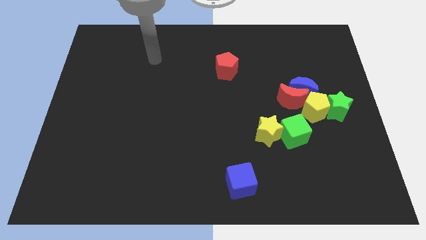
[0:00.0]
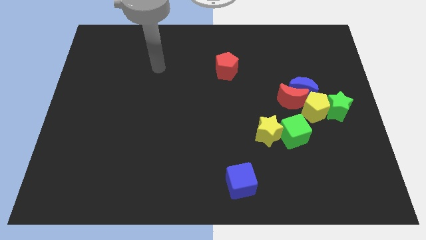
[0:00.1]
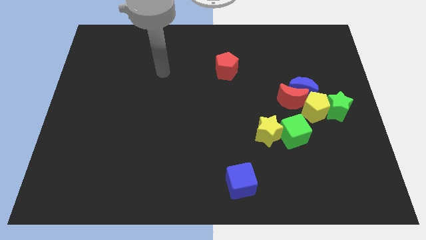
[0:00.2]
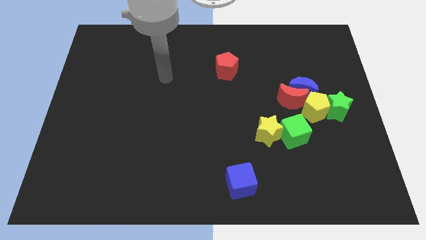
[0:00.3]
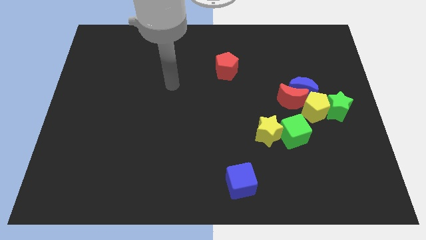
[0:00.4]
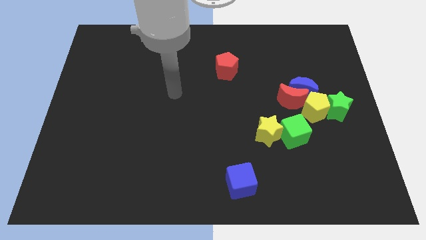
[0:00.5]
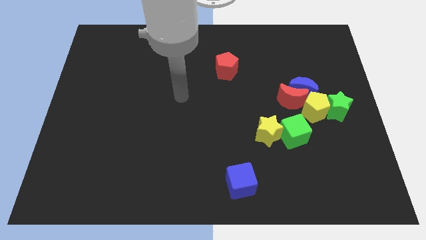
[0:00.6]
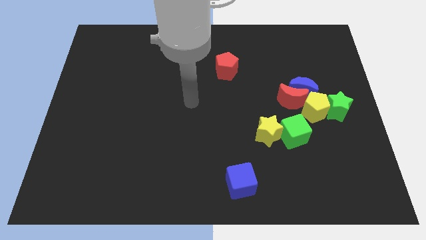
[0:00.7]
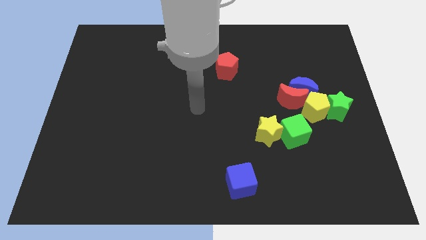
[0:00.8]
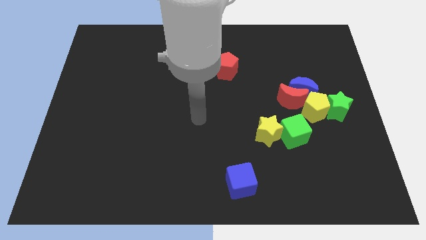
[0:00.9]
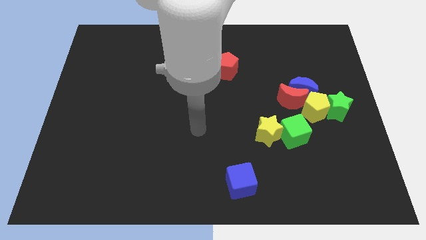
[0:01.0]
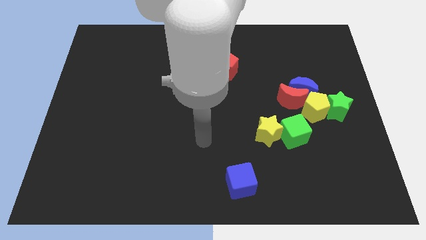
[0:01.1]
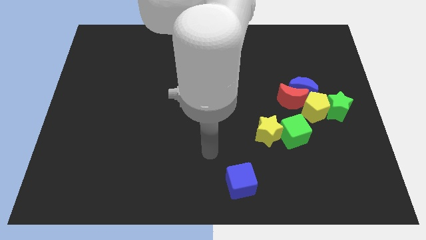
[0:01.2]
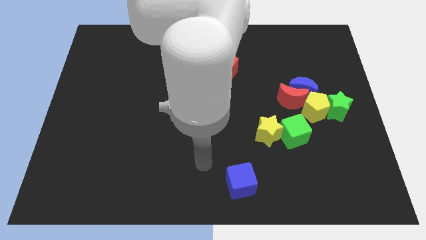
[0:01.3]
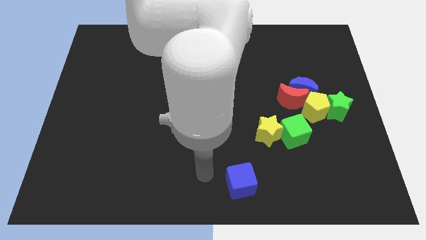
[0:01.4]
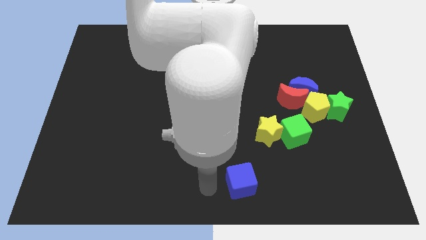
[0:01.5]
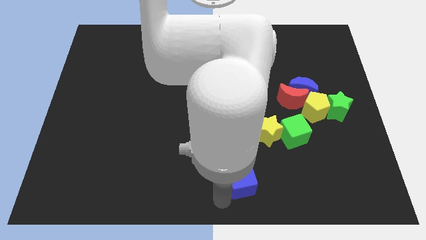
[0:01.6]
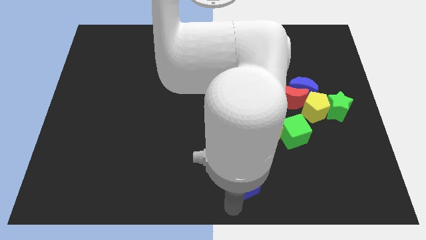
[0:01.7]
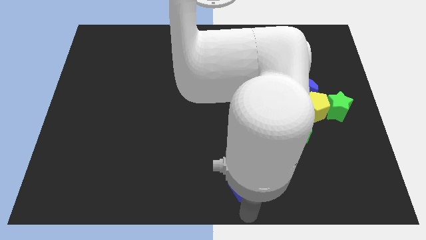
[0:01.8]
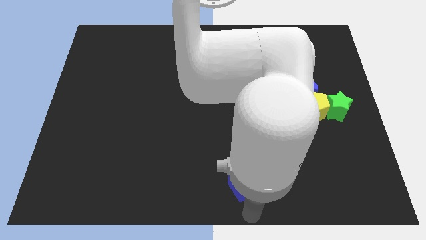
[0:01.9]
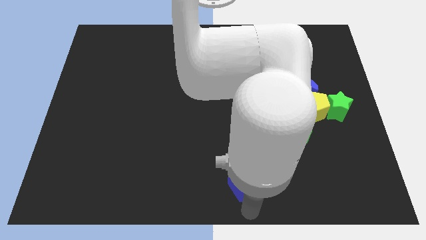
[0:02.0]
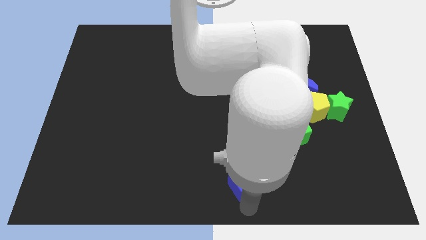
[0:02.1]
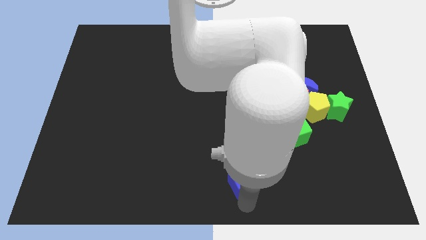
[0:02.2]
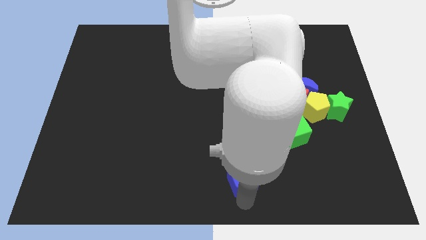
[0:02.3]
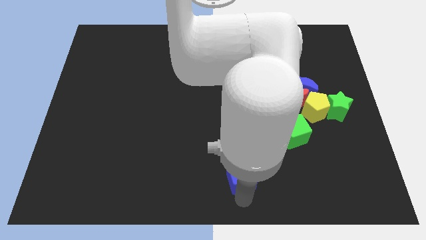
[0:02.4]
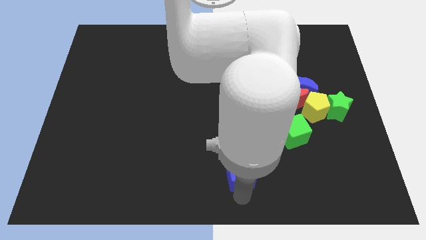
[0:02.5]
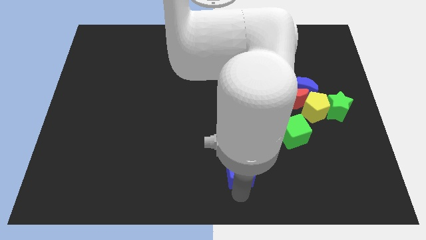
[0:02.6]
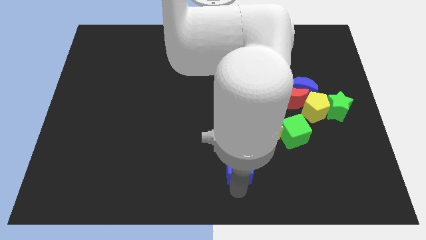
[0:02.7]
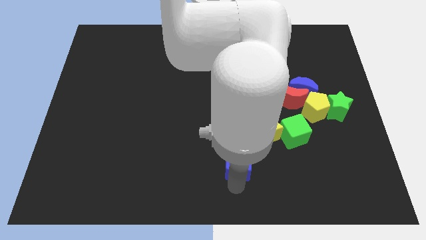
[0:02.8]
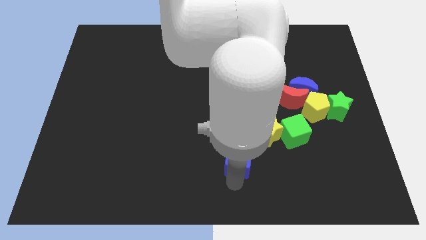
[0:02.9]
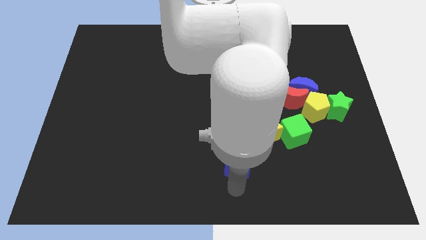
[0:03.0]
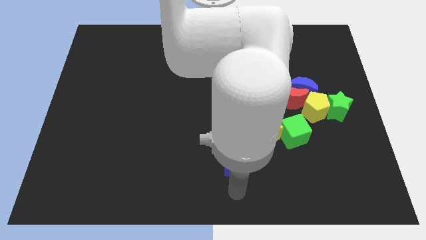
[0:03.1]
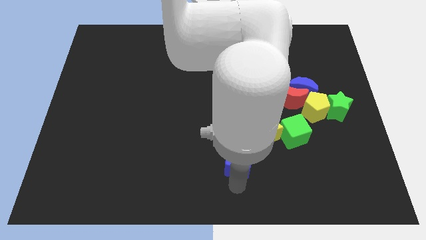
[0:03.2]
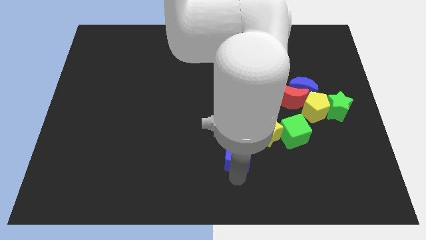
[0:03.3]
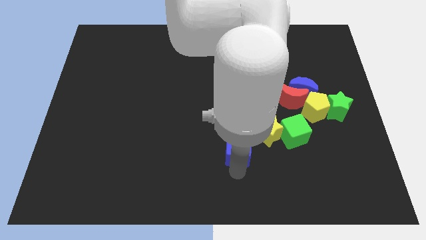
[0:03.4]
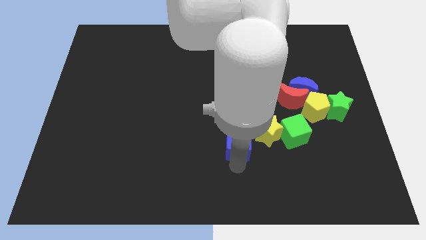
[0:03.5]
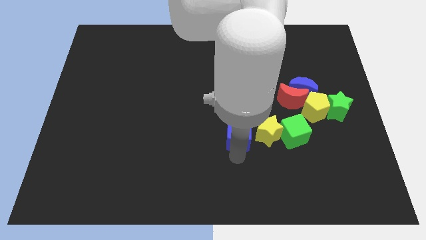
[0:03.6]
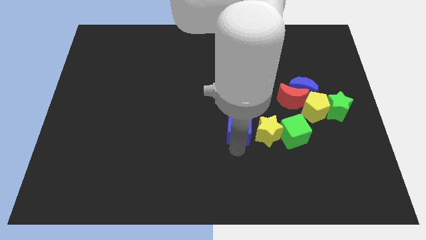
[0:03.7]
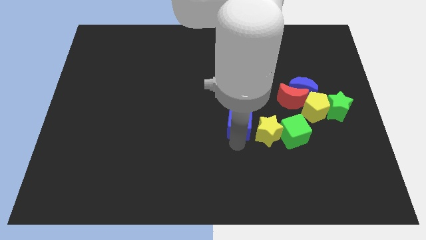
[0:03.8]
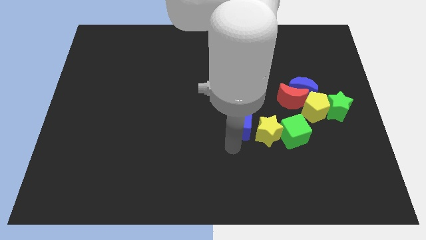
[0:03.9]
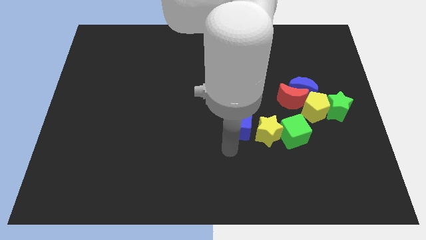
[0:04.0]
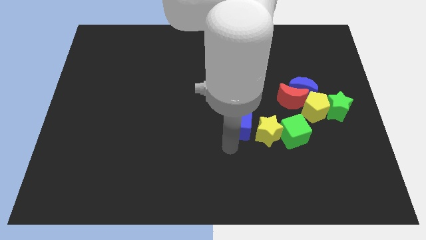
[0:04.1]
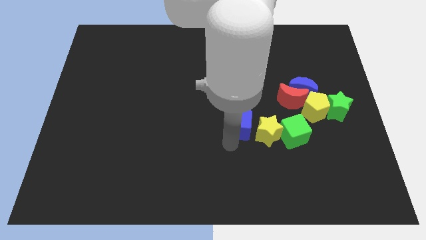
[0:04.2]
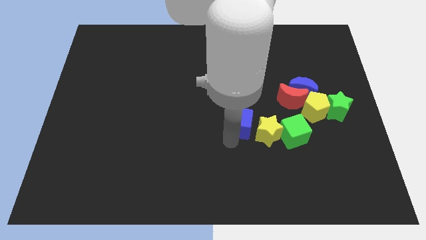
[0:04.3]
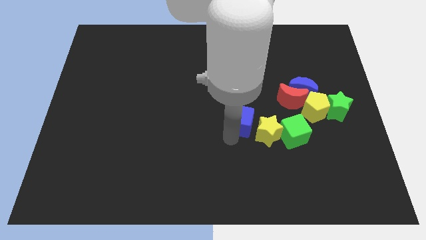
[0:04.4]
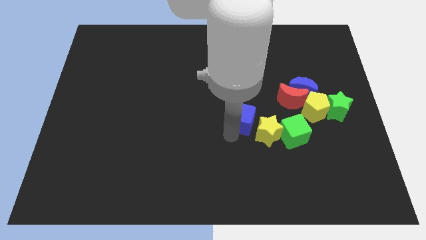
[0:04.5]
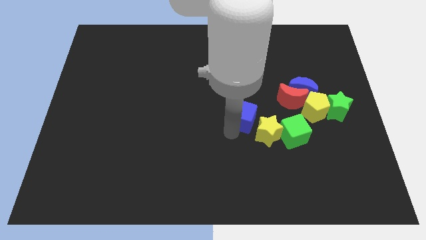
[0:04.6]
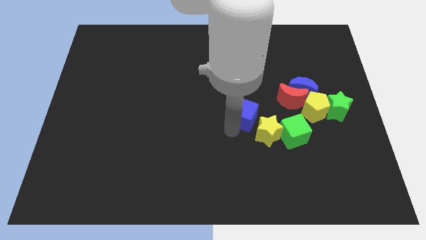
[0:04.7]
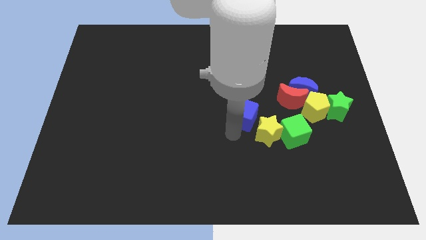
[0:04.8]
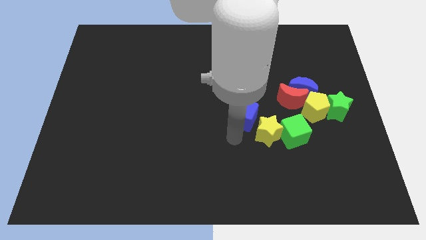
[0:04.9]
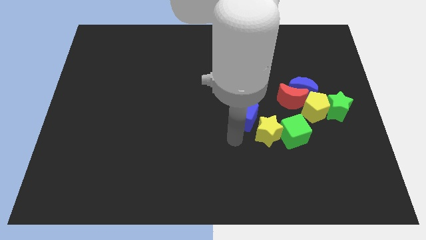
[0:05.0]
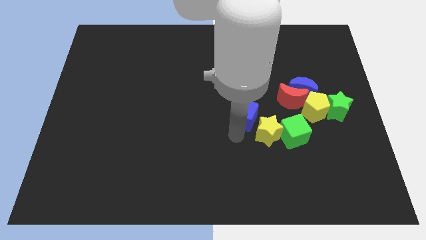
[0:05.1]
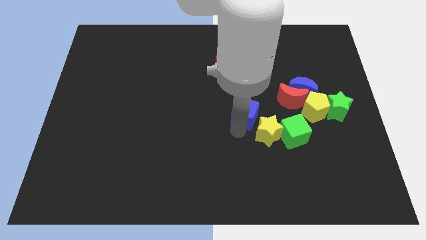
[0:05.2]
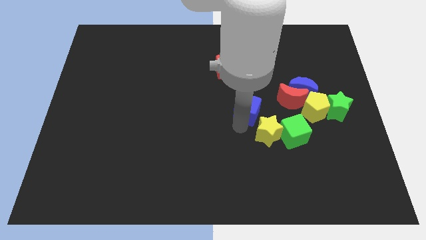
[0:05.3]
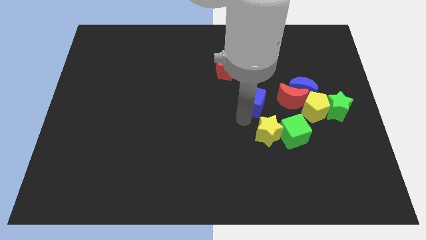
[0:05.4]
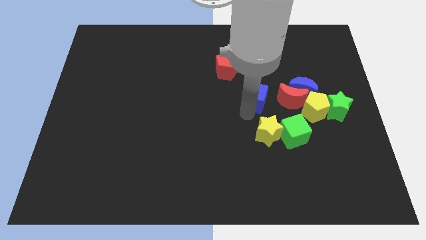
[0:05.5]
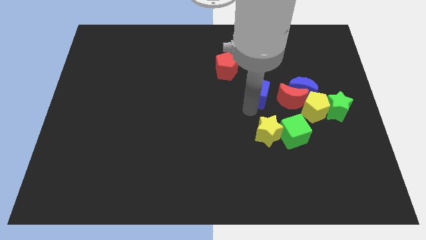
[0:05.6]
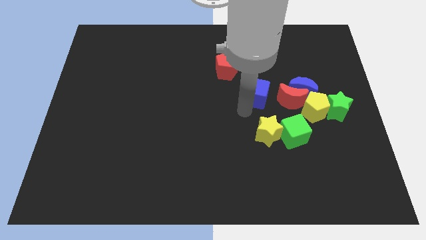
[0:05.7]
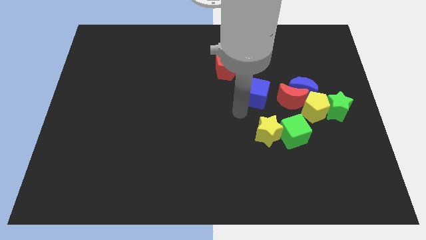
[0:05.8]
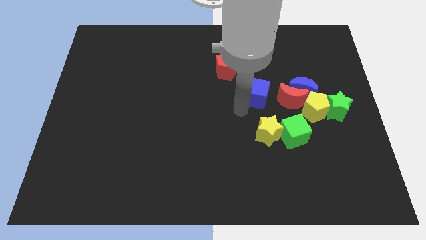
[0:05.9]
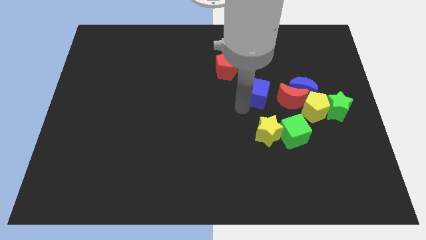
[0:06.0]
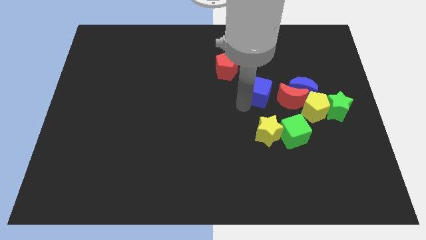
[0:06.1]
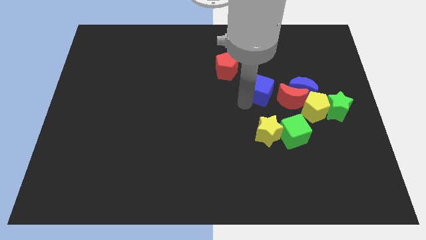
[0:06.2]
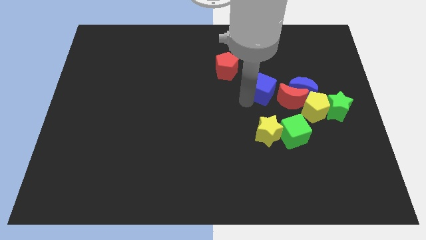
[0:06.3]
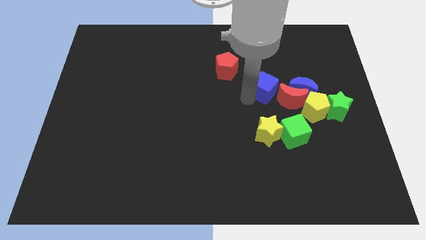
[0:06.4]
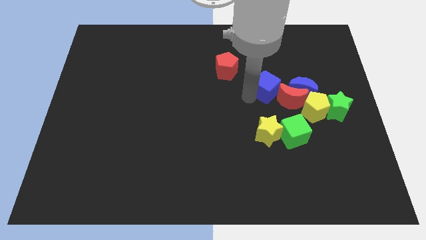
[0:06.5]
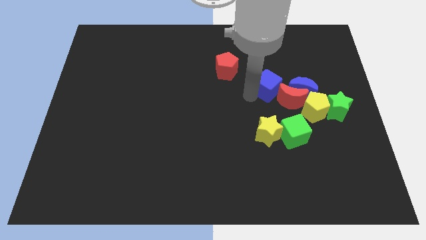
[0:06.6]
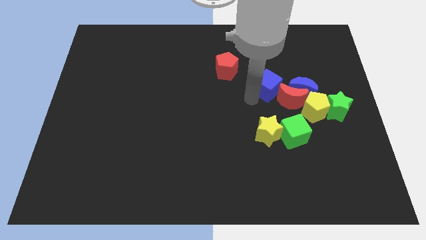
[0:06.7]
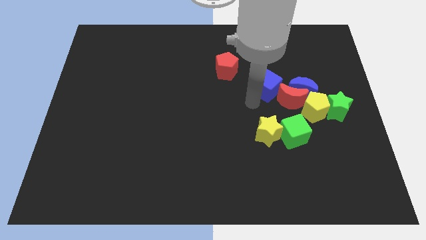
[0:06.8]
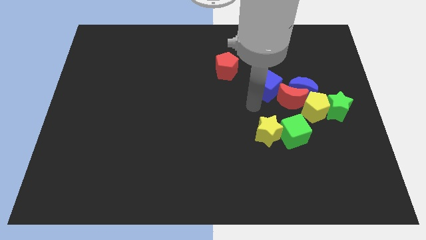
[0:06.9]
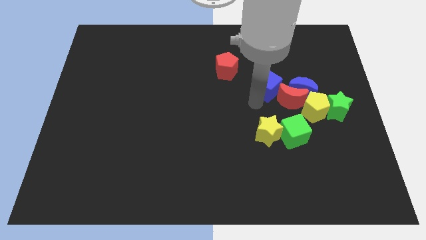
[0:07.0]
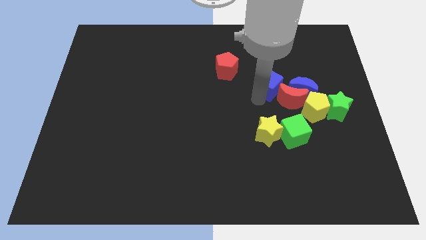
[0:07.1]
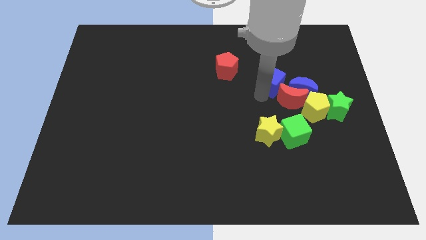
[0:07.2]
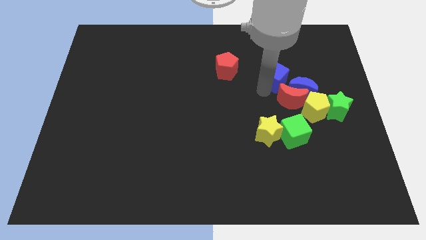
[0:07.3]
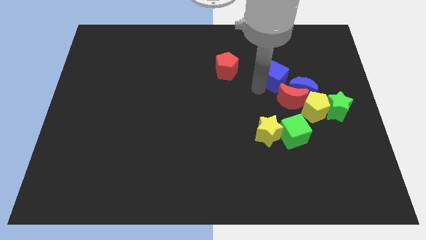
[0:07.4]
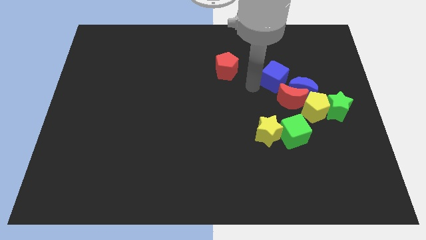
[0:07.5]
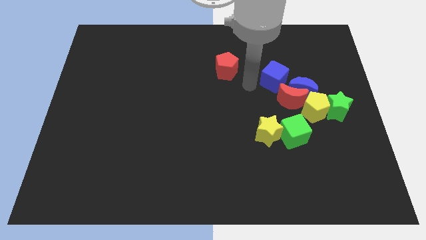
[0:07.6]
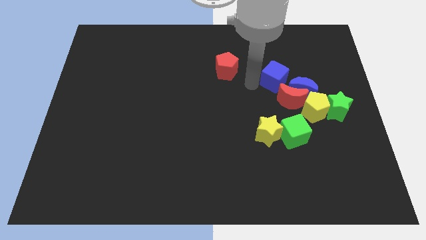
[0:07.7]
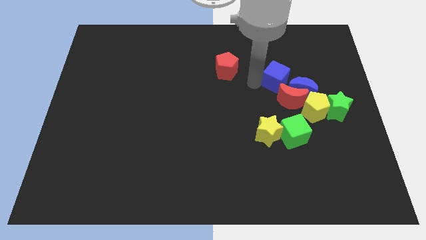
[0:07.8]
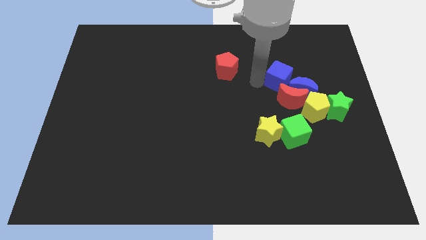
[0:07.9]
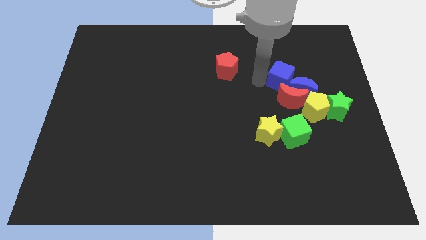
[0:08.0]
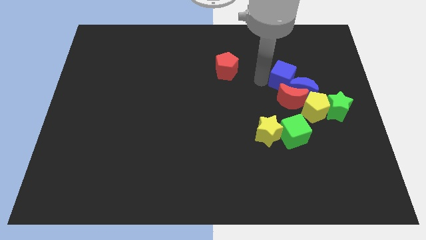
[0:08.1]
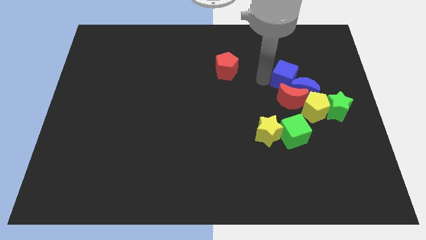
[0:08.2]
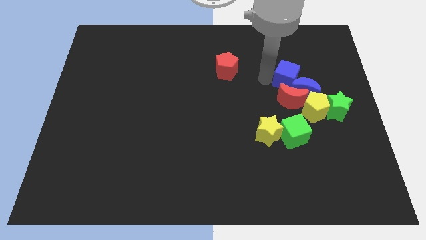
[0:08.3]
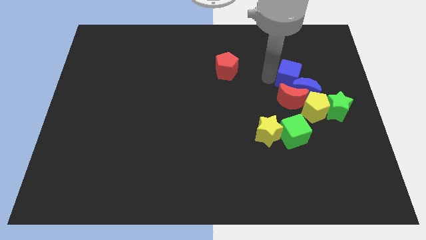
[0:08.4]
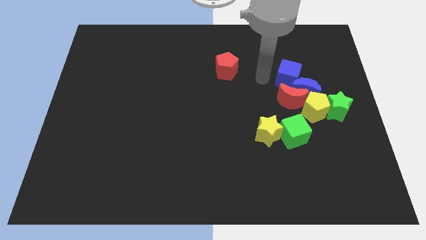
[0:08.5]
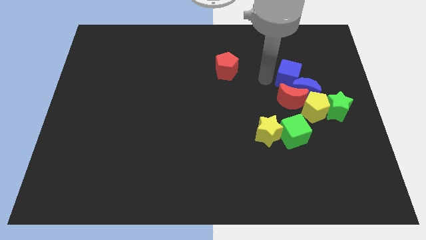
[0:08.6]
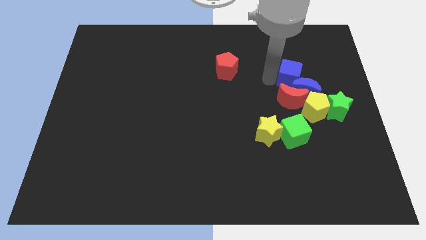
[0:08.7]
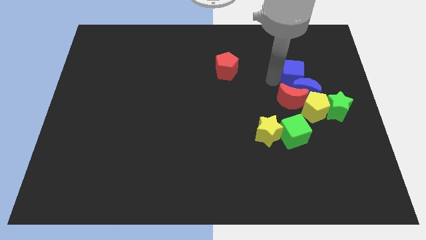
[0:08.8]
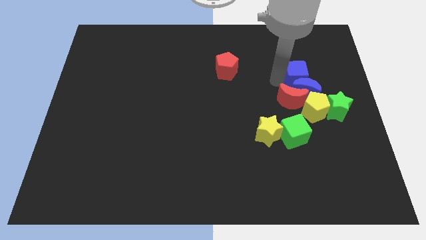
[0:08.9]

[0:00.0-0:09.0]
slide the blue cube to the top right of the blue moon
